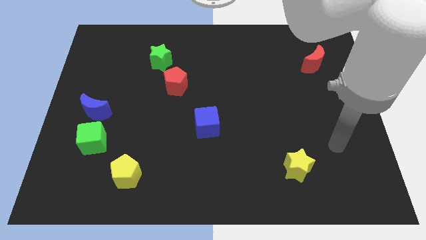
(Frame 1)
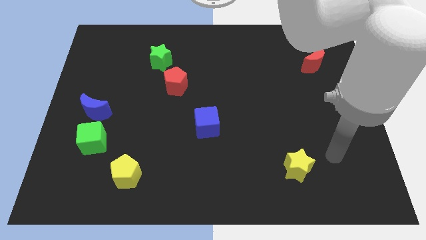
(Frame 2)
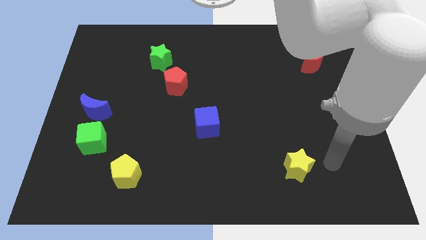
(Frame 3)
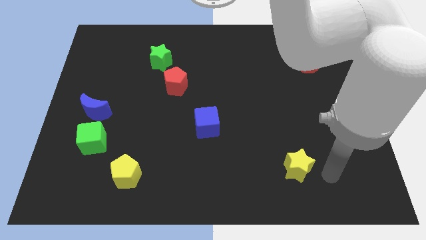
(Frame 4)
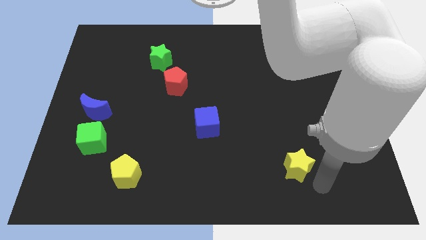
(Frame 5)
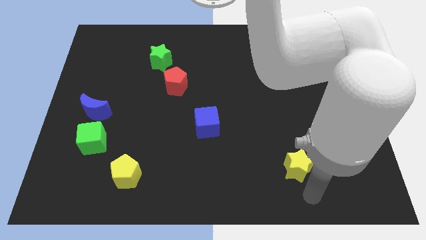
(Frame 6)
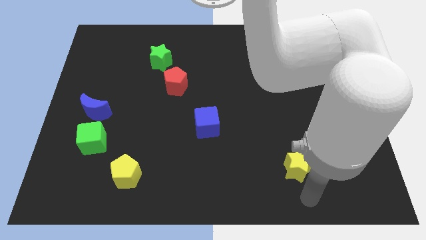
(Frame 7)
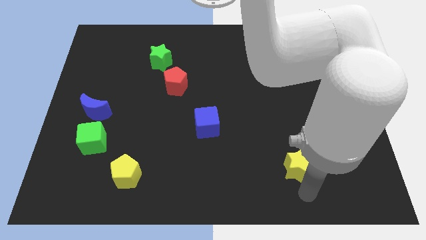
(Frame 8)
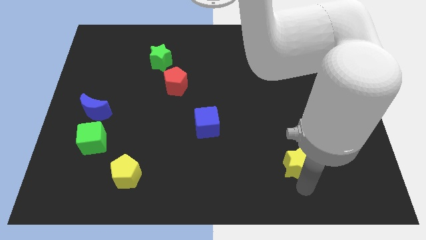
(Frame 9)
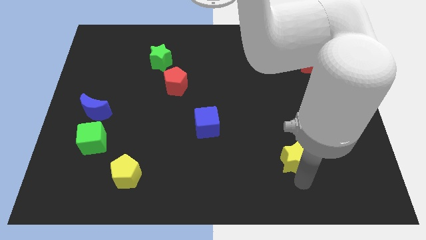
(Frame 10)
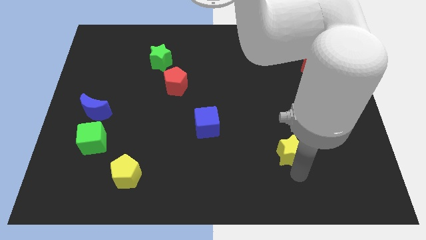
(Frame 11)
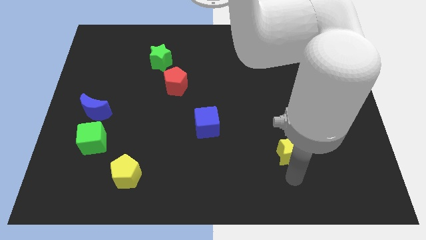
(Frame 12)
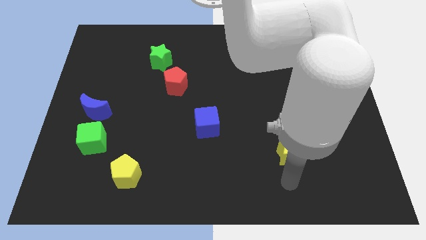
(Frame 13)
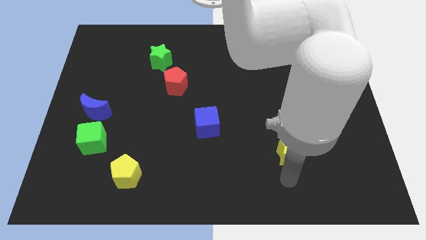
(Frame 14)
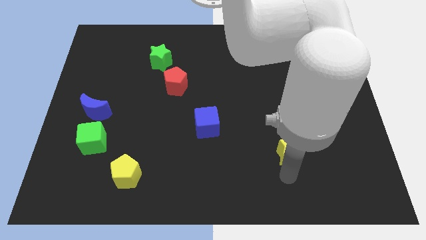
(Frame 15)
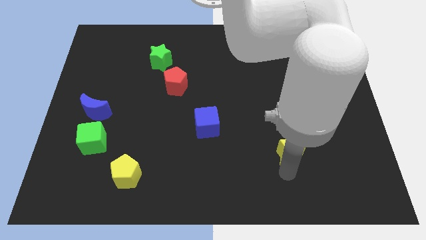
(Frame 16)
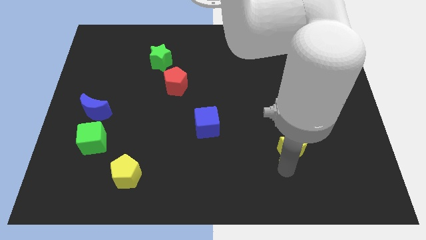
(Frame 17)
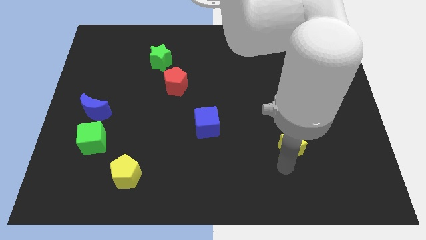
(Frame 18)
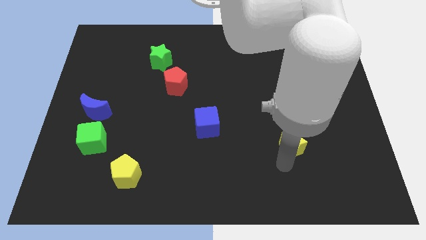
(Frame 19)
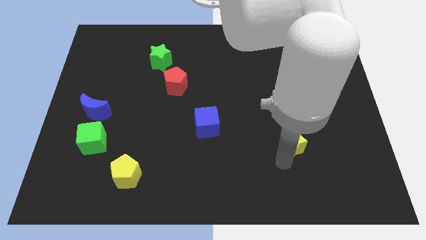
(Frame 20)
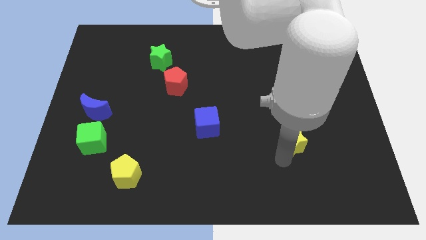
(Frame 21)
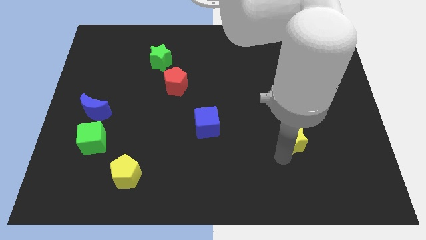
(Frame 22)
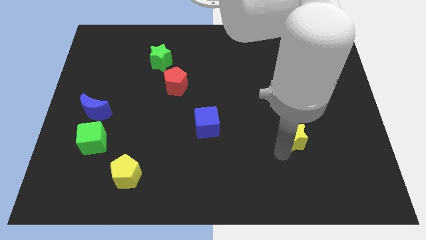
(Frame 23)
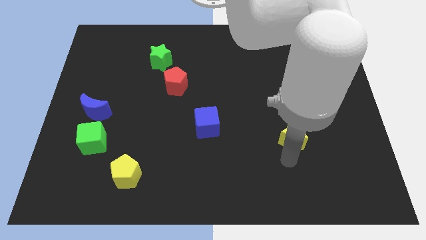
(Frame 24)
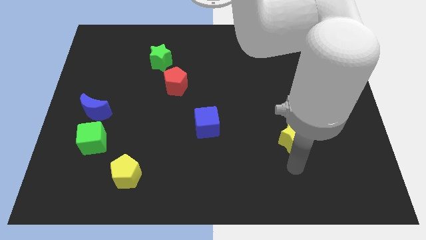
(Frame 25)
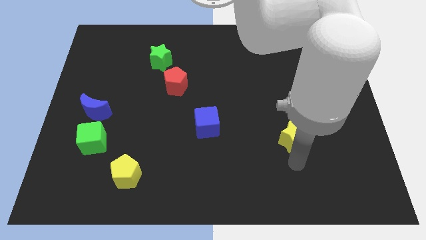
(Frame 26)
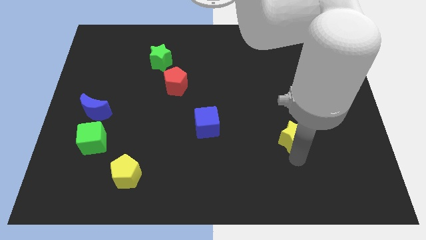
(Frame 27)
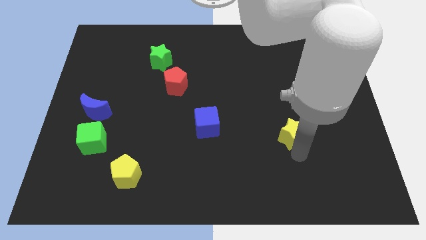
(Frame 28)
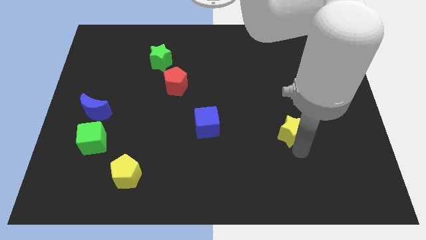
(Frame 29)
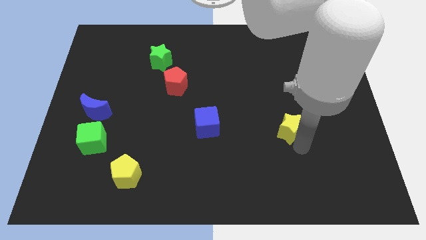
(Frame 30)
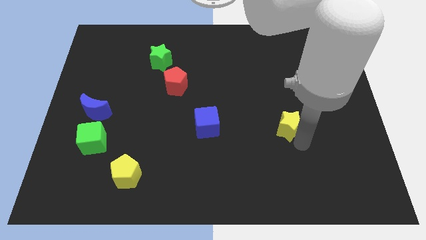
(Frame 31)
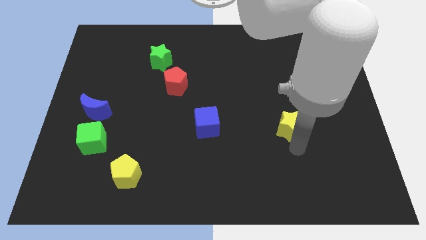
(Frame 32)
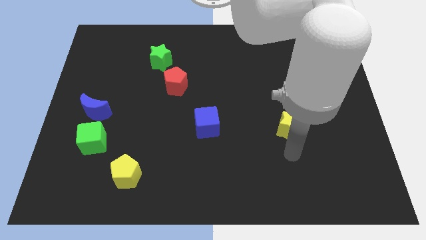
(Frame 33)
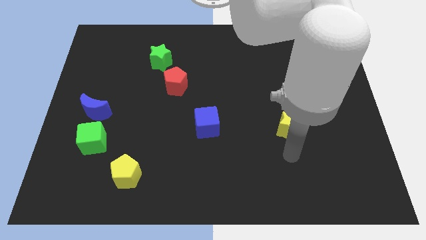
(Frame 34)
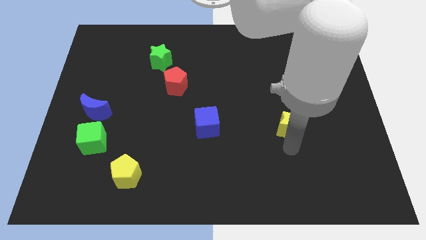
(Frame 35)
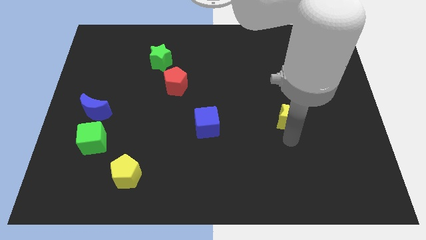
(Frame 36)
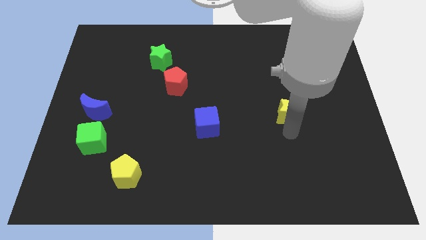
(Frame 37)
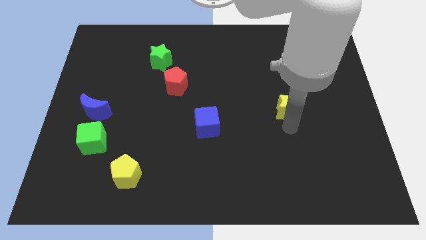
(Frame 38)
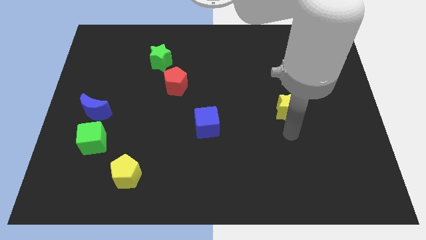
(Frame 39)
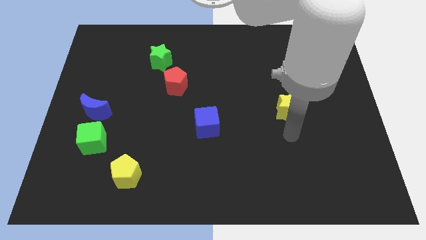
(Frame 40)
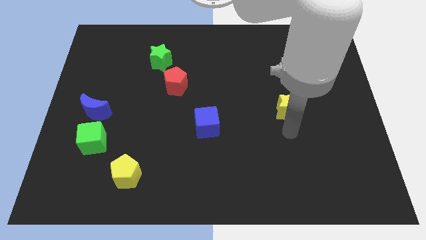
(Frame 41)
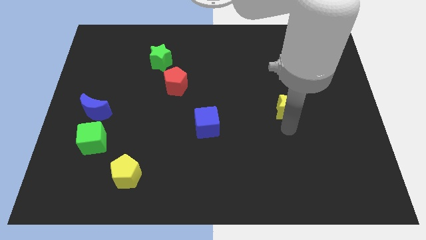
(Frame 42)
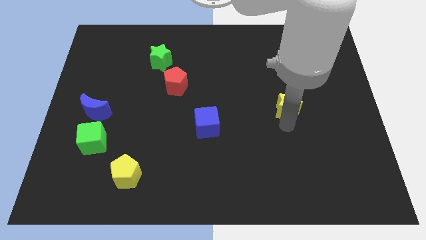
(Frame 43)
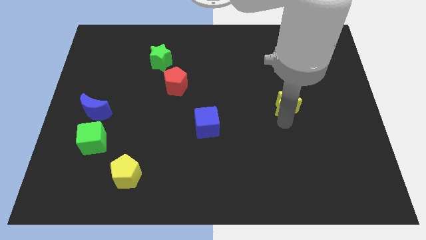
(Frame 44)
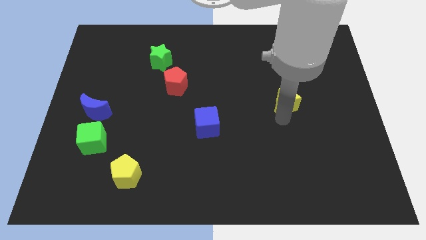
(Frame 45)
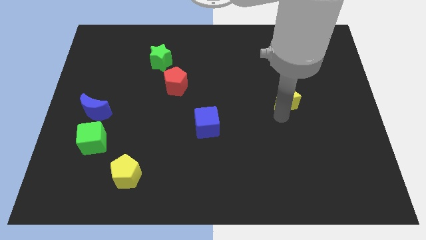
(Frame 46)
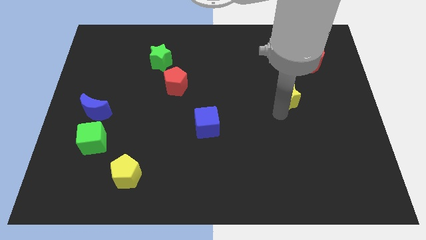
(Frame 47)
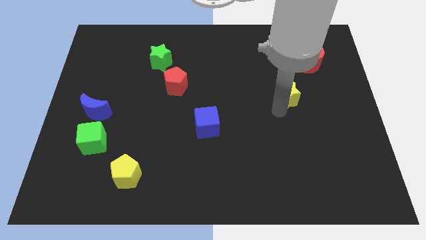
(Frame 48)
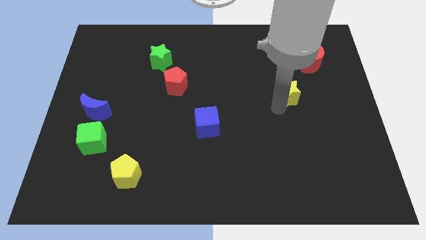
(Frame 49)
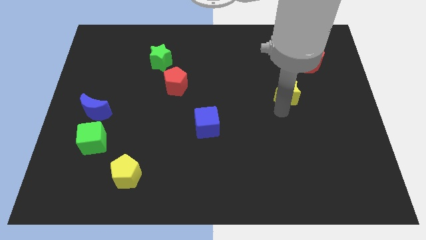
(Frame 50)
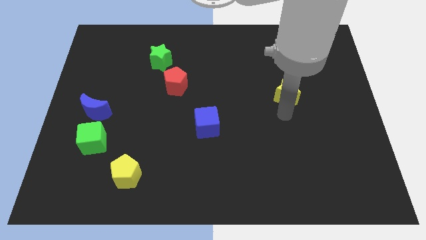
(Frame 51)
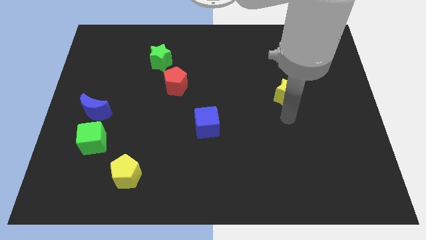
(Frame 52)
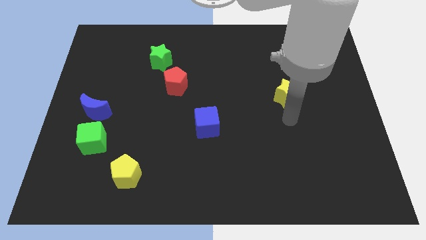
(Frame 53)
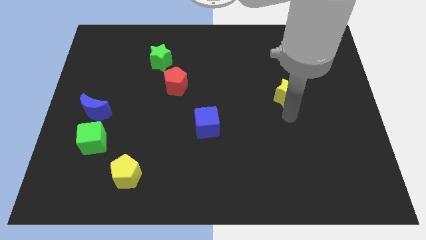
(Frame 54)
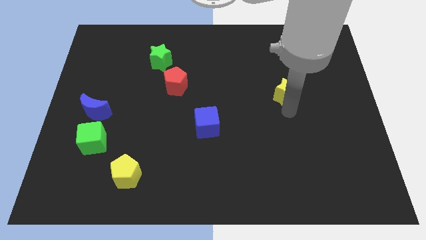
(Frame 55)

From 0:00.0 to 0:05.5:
push the yellow star up

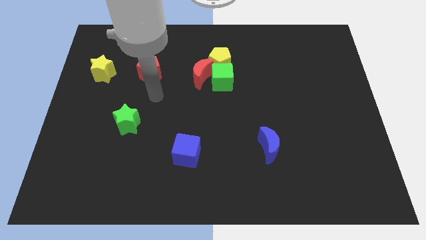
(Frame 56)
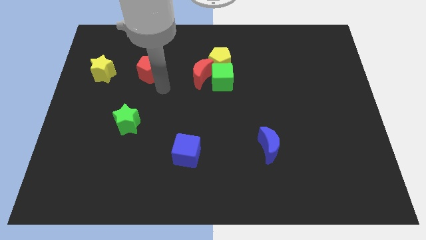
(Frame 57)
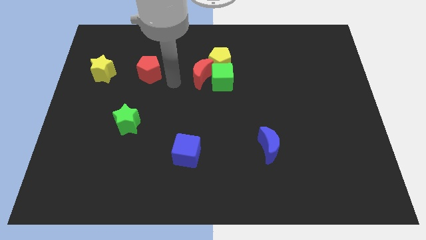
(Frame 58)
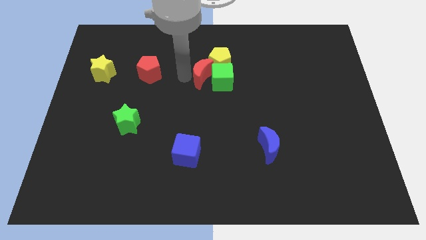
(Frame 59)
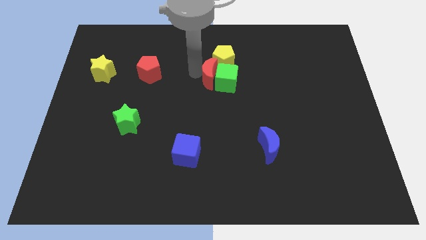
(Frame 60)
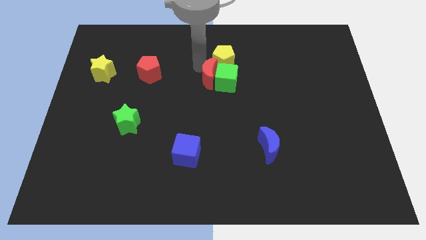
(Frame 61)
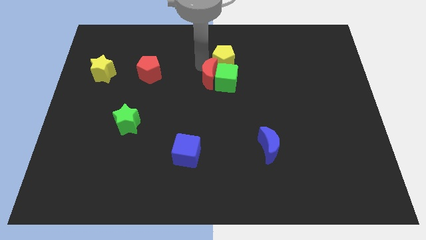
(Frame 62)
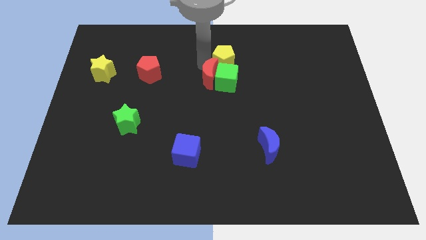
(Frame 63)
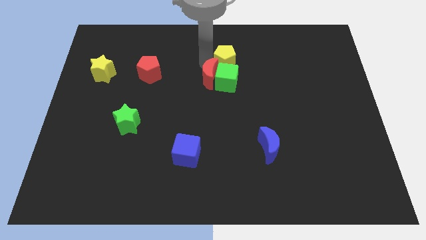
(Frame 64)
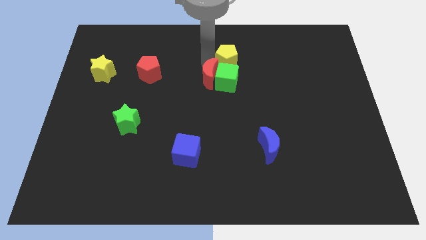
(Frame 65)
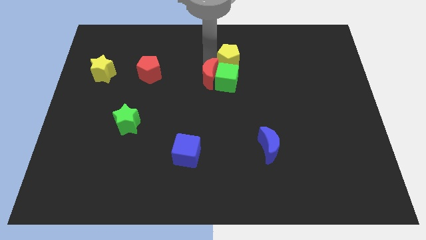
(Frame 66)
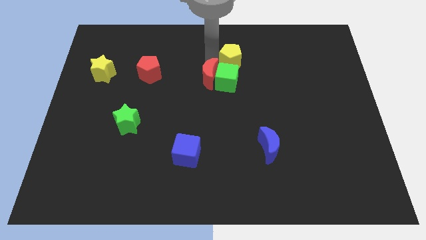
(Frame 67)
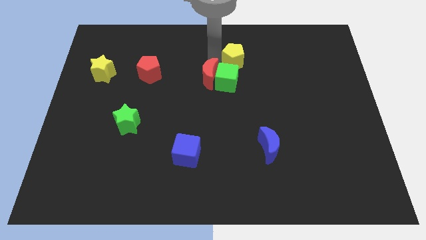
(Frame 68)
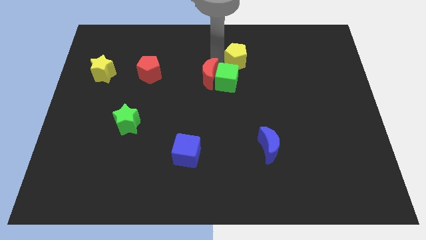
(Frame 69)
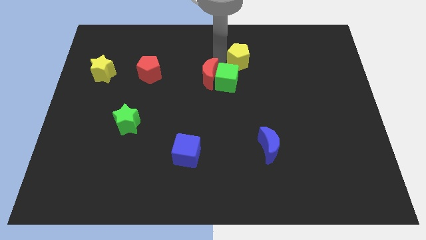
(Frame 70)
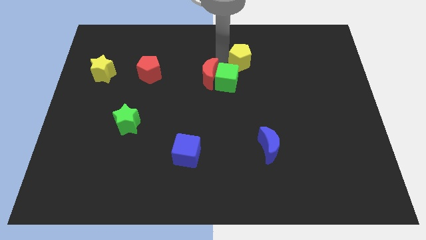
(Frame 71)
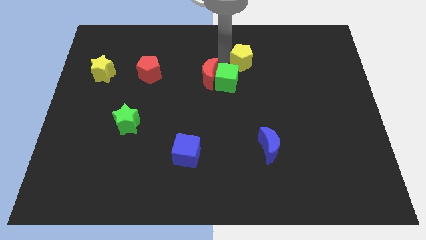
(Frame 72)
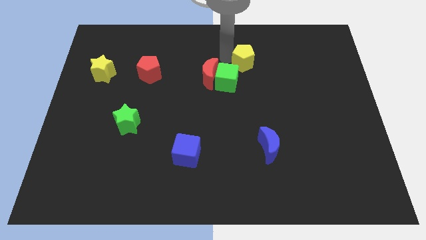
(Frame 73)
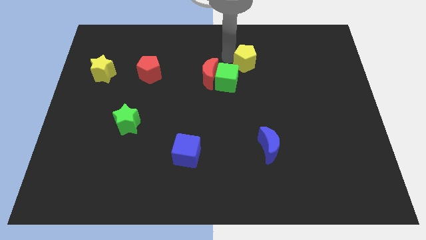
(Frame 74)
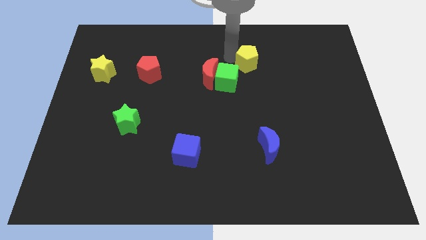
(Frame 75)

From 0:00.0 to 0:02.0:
slightly push the yellow pentagon to the right

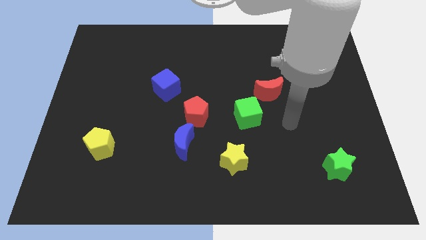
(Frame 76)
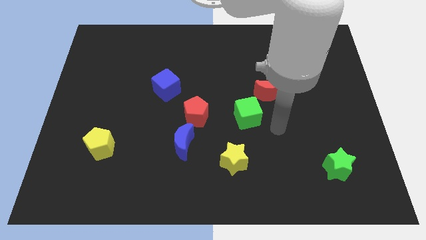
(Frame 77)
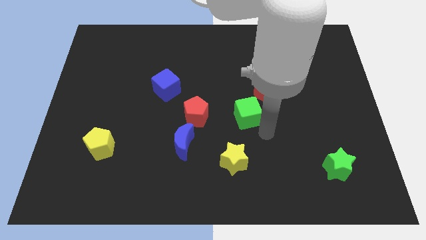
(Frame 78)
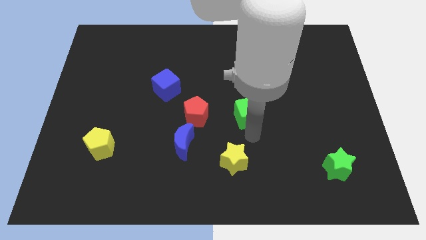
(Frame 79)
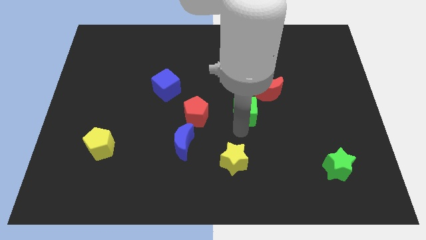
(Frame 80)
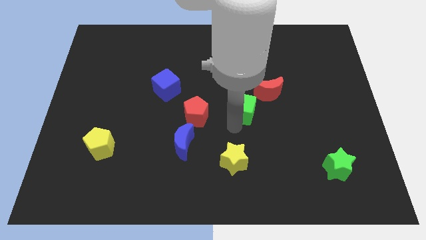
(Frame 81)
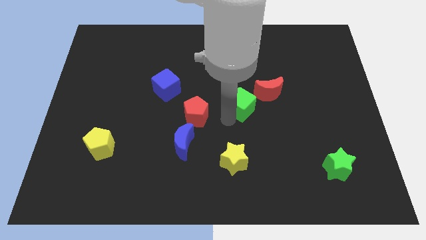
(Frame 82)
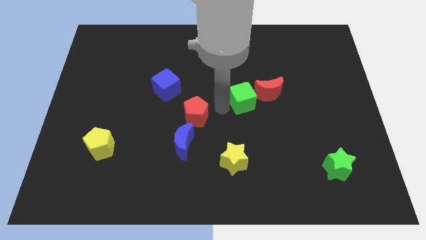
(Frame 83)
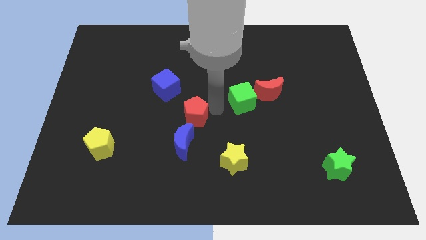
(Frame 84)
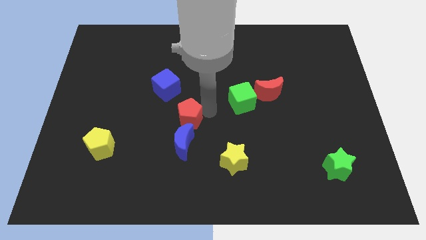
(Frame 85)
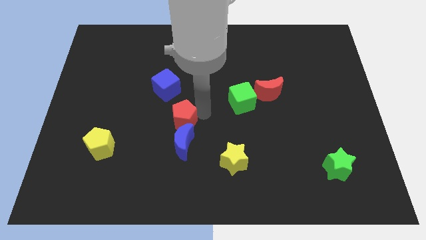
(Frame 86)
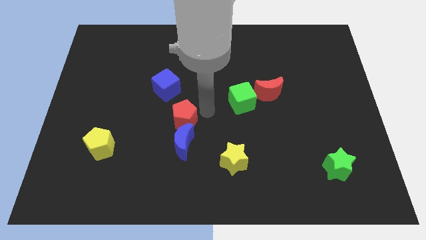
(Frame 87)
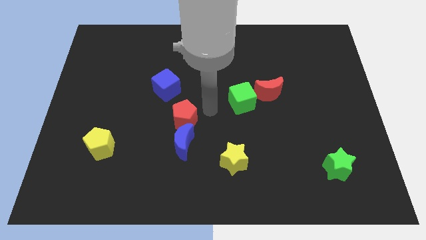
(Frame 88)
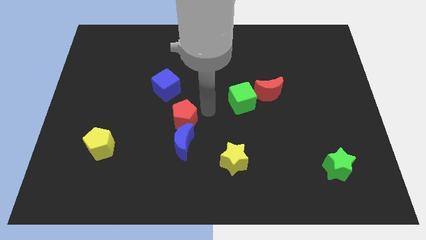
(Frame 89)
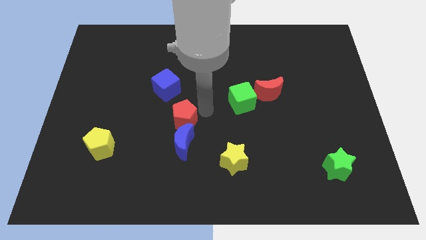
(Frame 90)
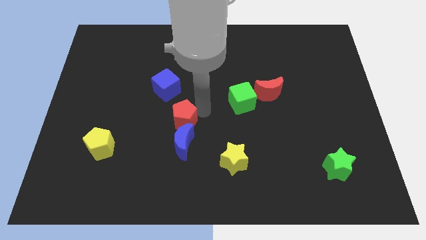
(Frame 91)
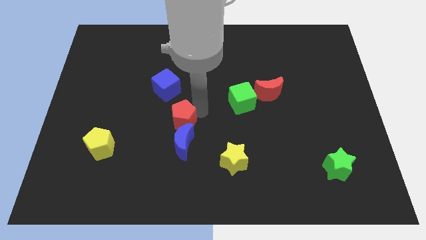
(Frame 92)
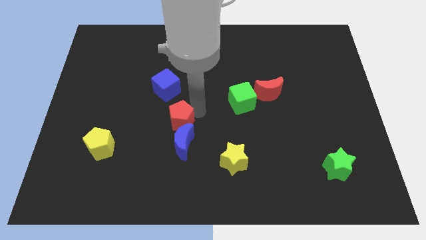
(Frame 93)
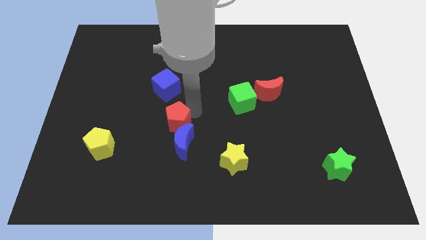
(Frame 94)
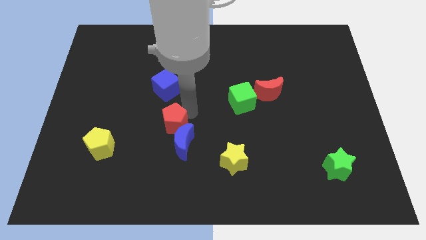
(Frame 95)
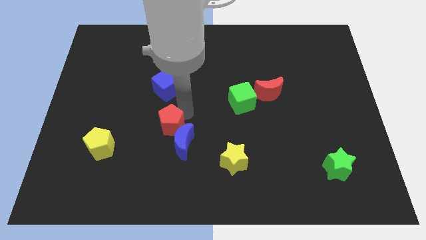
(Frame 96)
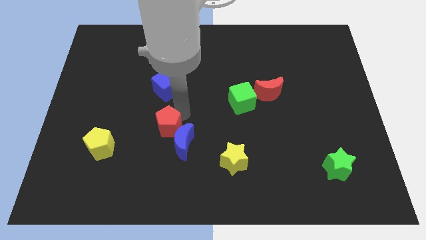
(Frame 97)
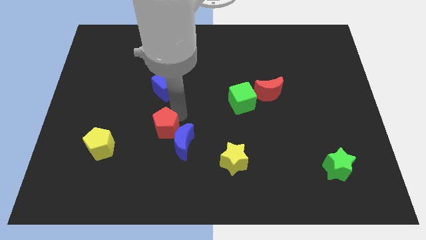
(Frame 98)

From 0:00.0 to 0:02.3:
slightly move the red pentagon downwards and left diagonally
